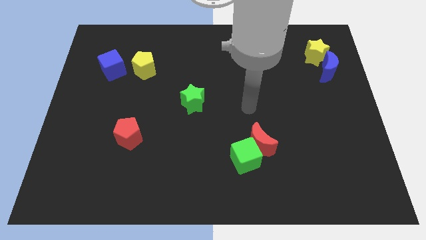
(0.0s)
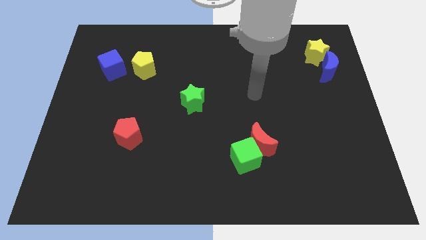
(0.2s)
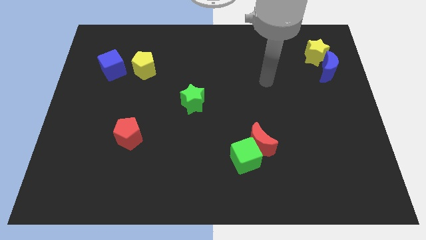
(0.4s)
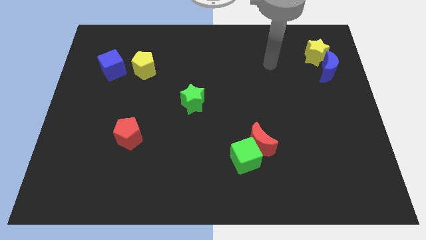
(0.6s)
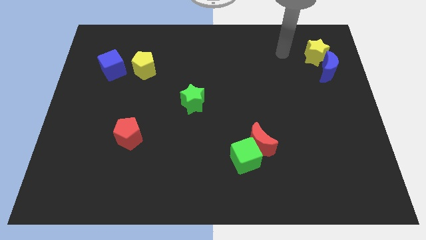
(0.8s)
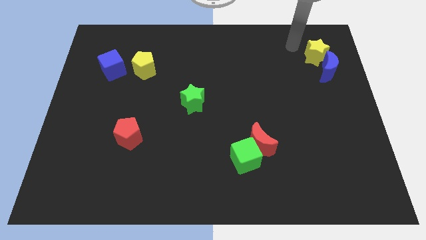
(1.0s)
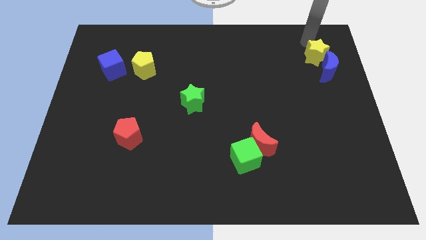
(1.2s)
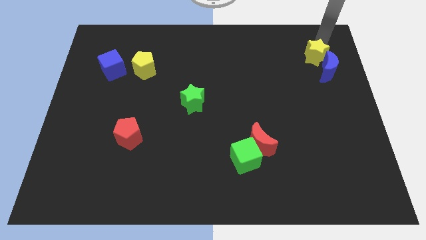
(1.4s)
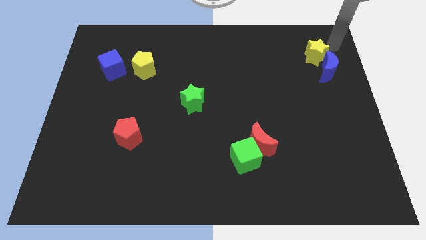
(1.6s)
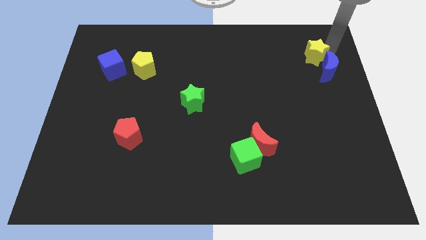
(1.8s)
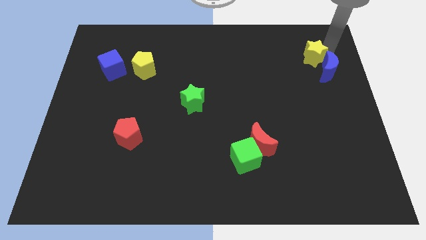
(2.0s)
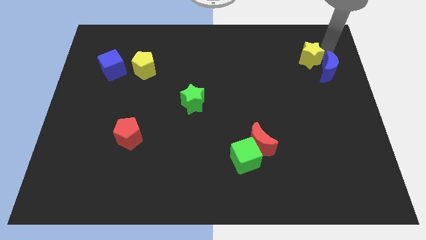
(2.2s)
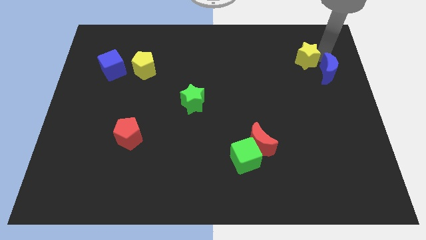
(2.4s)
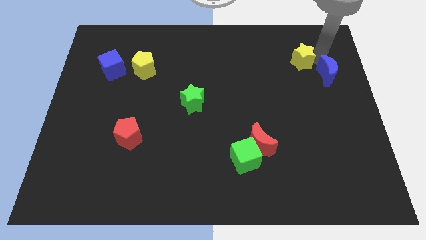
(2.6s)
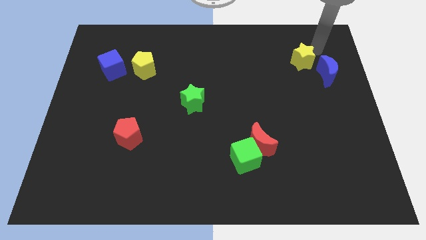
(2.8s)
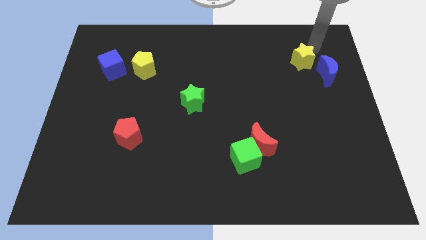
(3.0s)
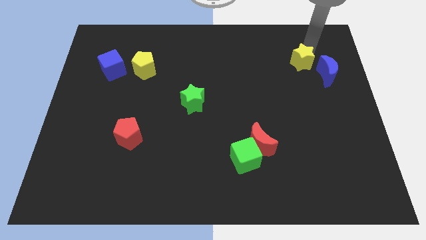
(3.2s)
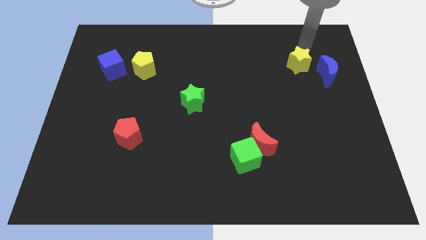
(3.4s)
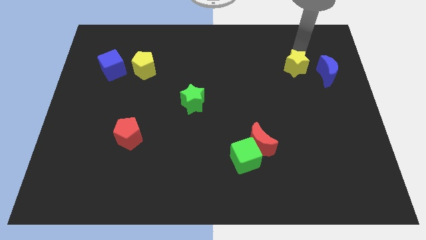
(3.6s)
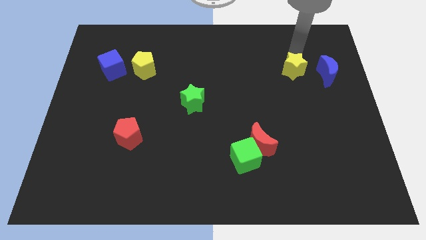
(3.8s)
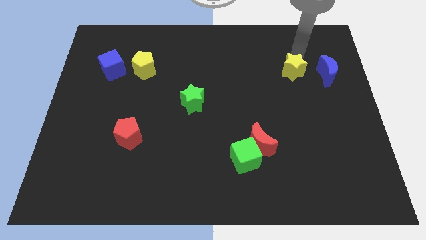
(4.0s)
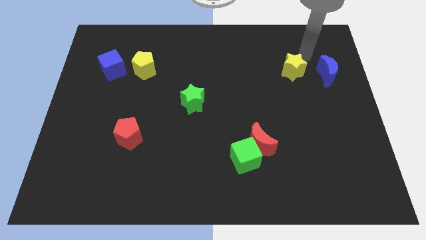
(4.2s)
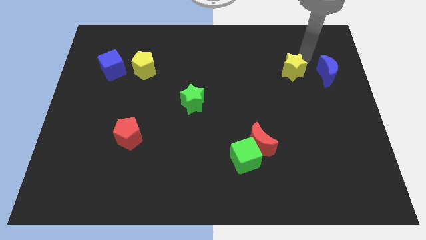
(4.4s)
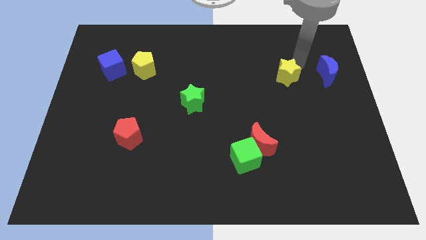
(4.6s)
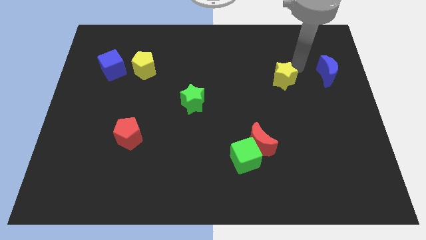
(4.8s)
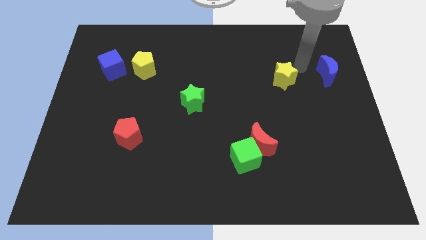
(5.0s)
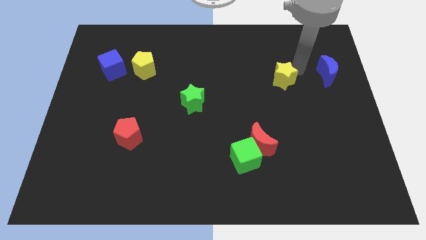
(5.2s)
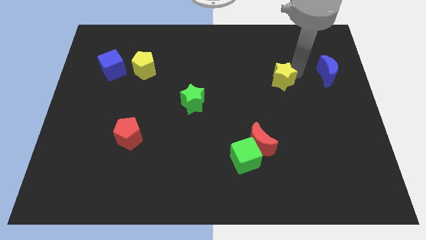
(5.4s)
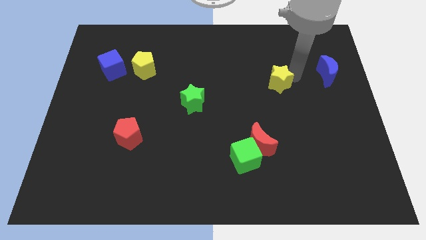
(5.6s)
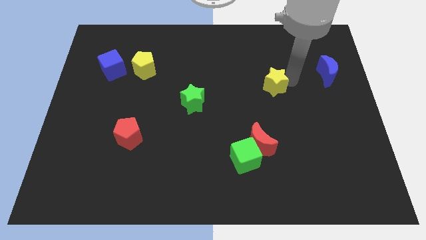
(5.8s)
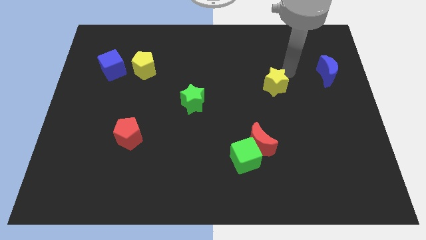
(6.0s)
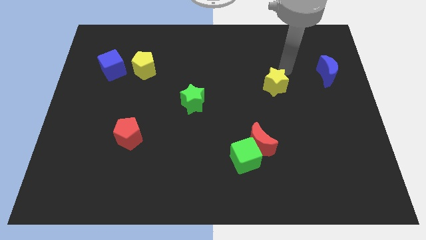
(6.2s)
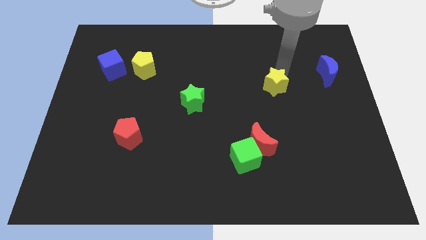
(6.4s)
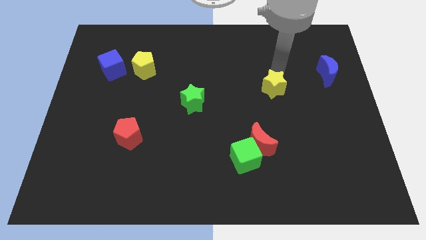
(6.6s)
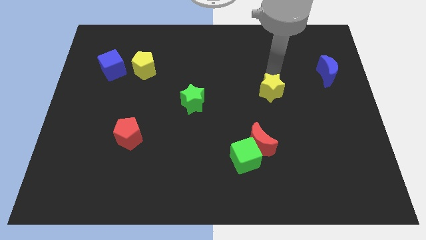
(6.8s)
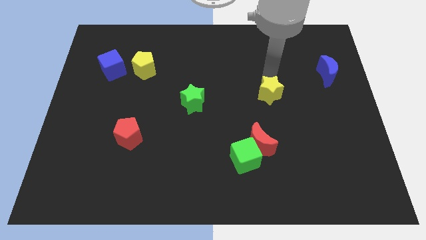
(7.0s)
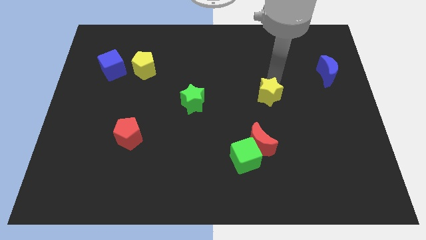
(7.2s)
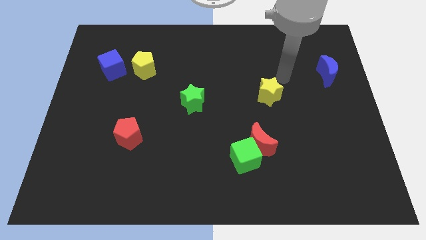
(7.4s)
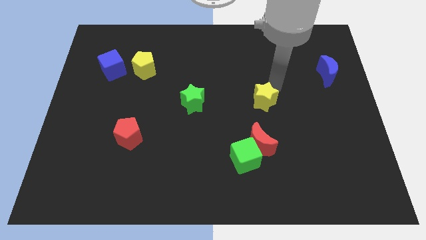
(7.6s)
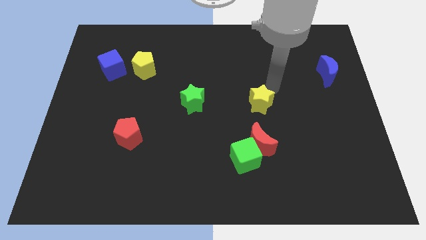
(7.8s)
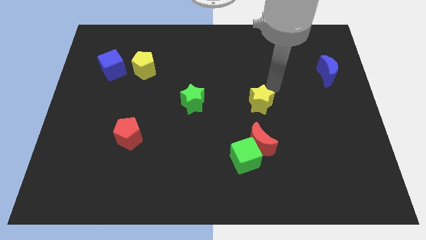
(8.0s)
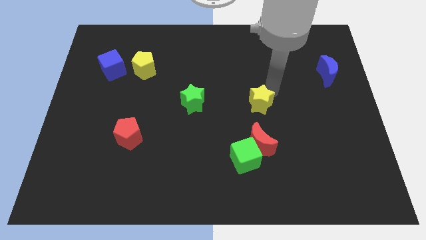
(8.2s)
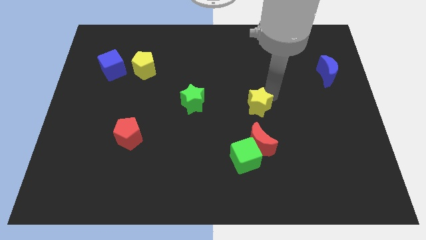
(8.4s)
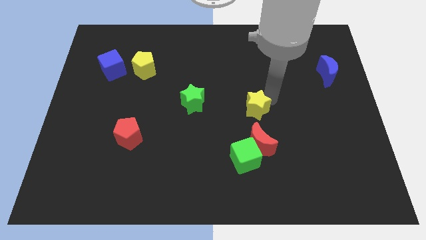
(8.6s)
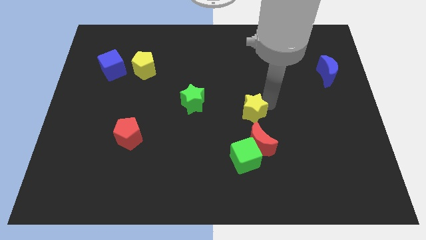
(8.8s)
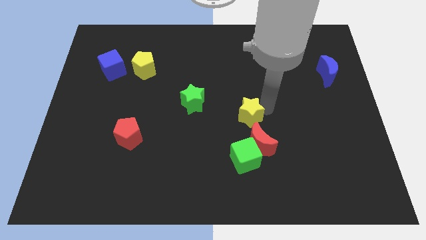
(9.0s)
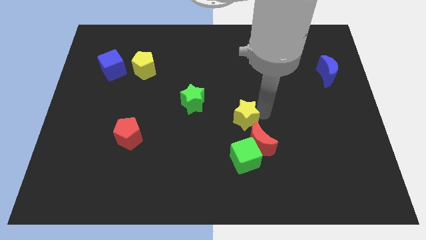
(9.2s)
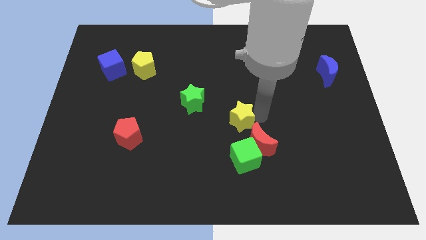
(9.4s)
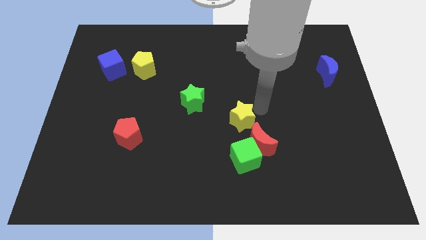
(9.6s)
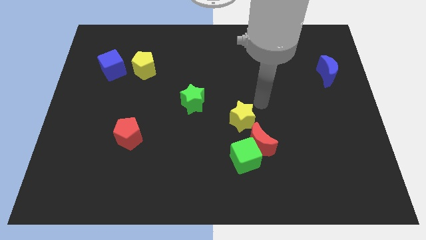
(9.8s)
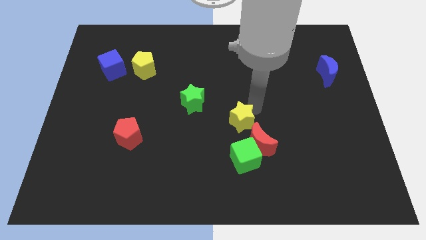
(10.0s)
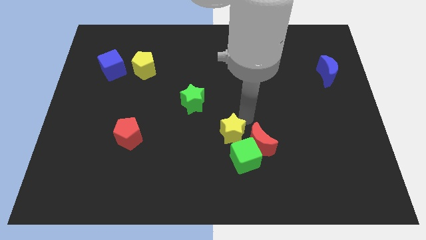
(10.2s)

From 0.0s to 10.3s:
put the yellow star to the left side of the red moon

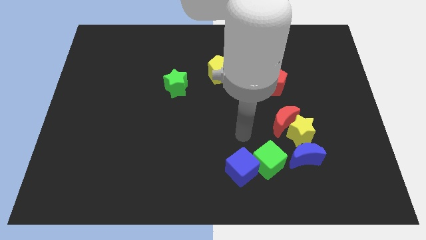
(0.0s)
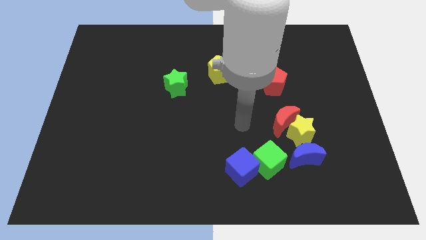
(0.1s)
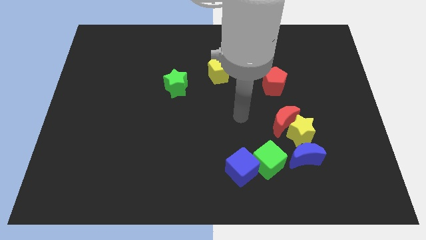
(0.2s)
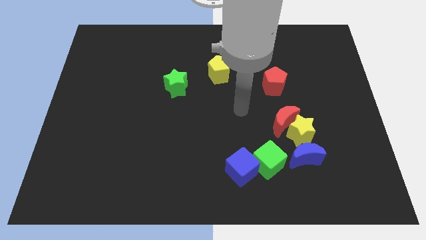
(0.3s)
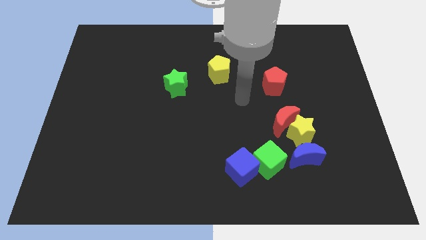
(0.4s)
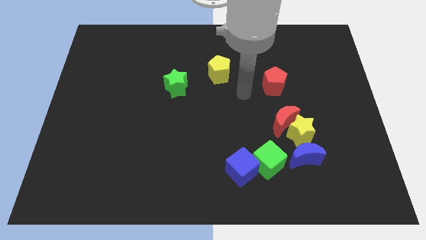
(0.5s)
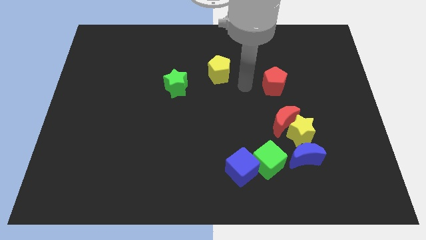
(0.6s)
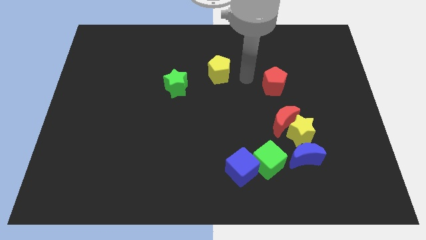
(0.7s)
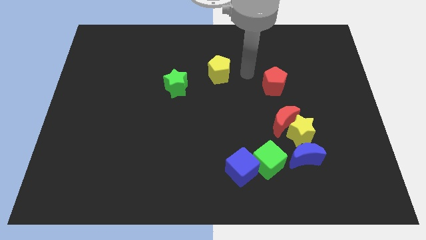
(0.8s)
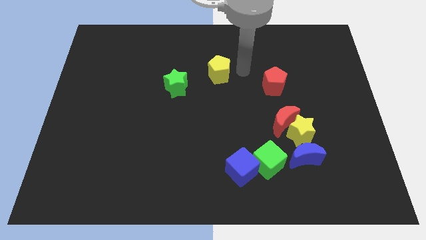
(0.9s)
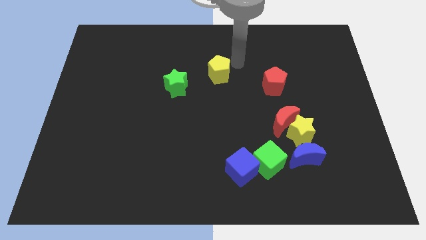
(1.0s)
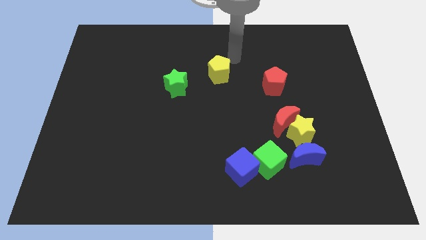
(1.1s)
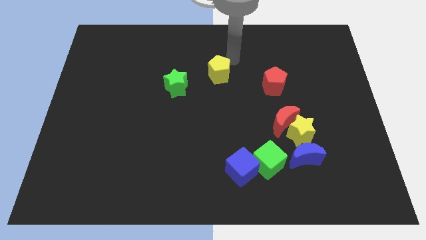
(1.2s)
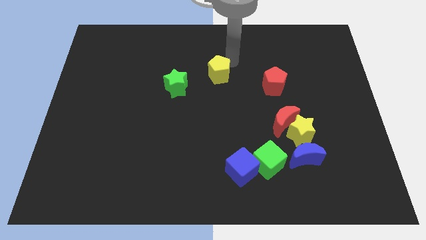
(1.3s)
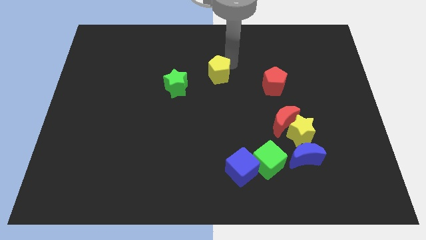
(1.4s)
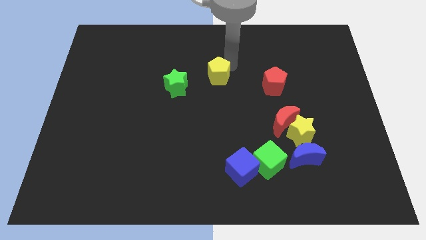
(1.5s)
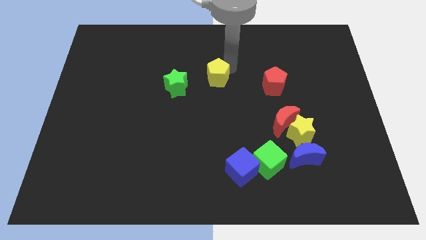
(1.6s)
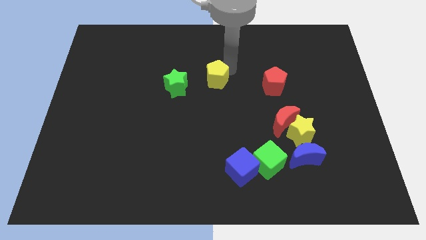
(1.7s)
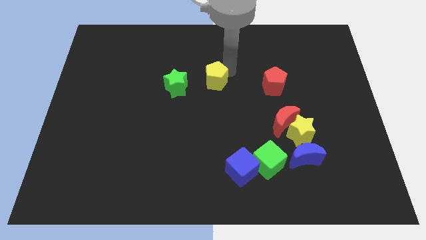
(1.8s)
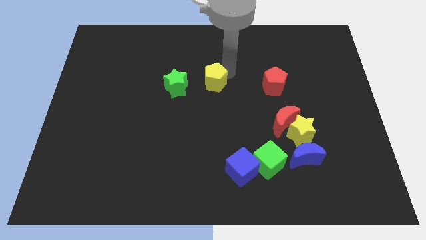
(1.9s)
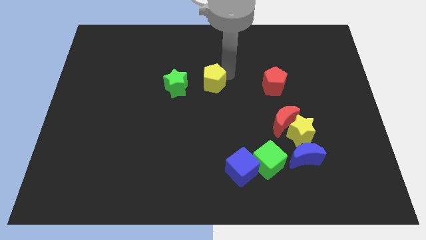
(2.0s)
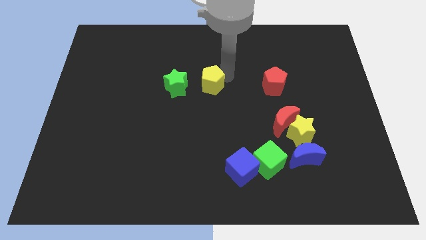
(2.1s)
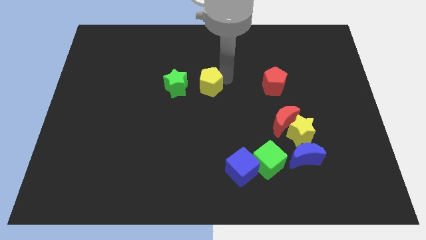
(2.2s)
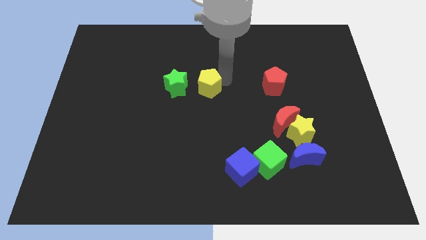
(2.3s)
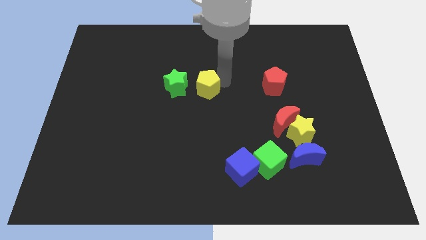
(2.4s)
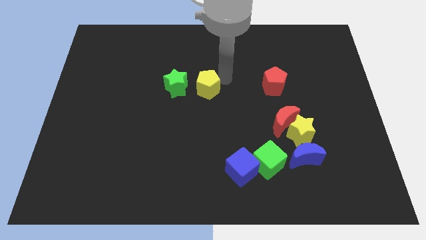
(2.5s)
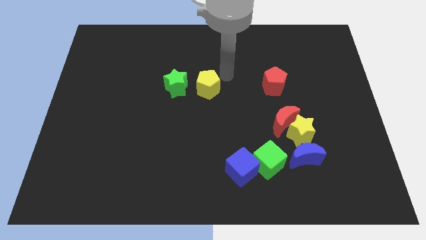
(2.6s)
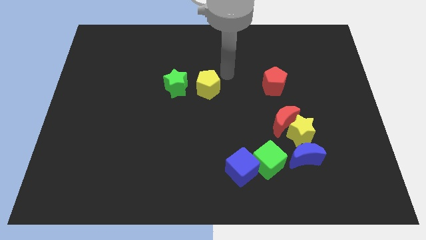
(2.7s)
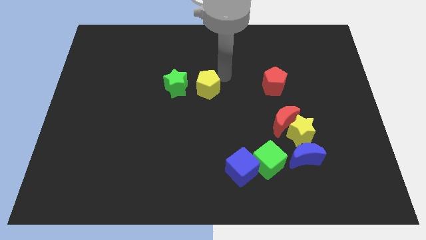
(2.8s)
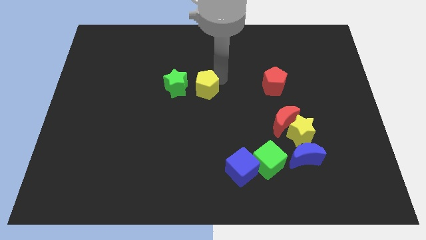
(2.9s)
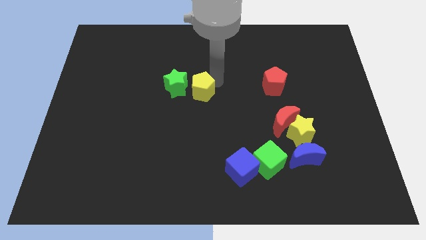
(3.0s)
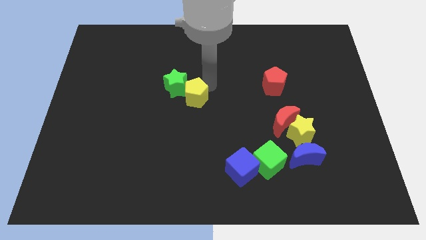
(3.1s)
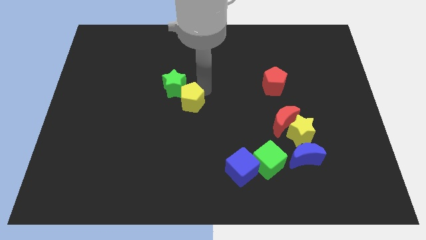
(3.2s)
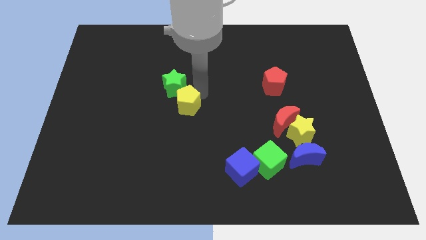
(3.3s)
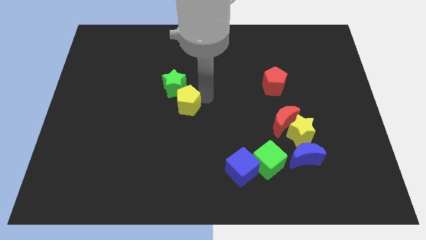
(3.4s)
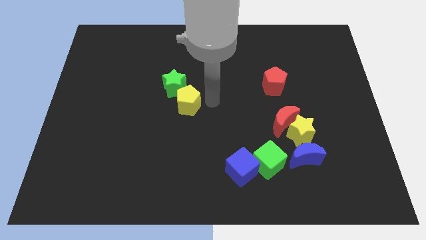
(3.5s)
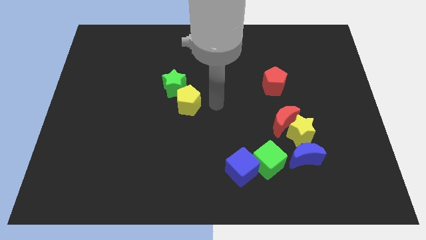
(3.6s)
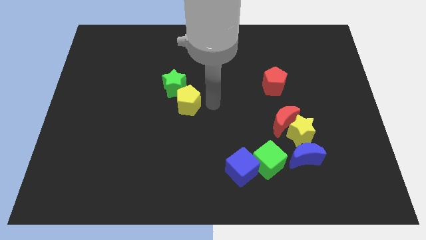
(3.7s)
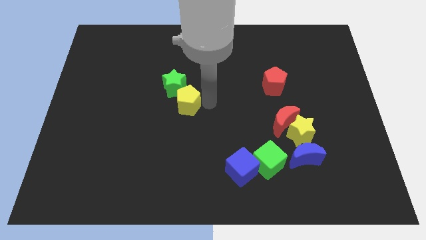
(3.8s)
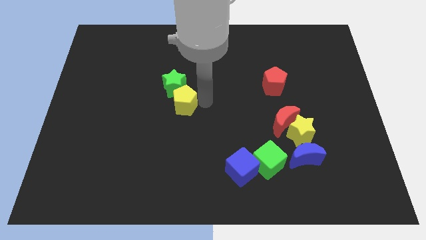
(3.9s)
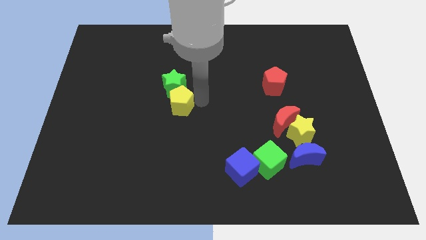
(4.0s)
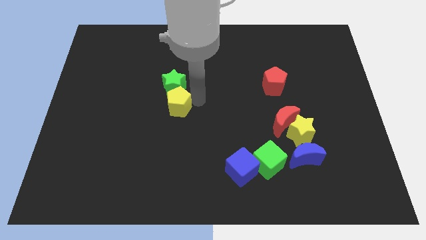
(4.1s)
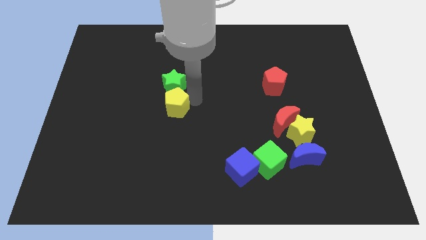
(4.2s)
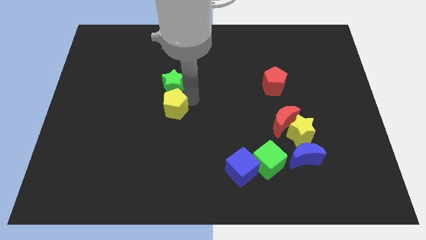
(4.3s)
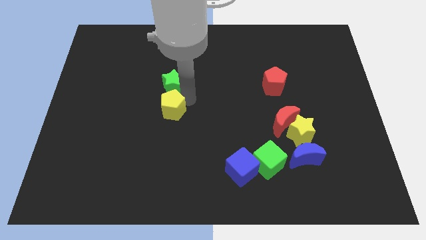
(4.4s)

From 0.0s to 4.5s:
push the yellow pentagon diagonally down and to the left of the green star
